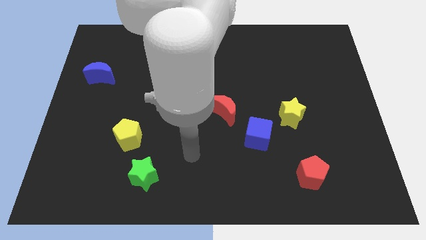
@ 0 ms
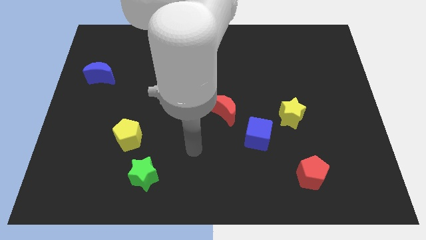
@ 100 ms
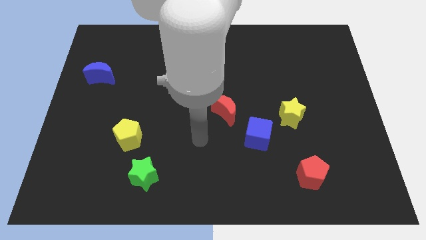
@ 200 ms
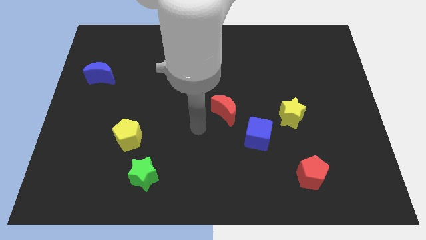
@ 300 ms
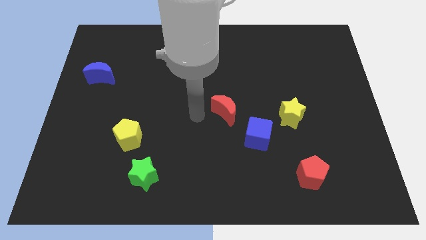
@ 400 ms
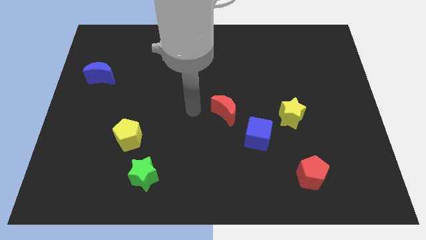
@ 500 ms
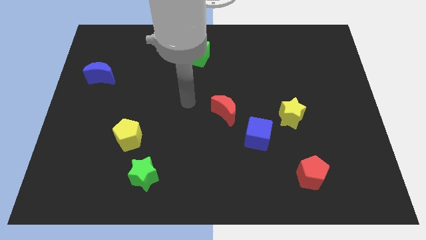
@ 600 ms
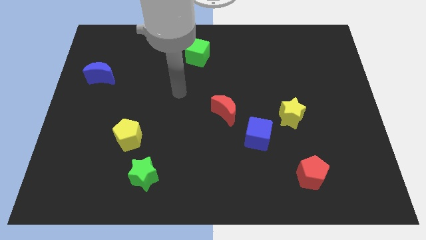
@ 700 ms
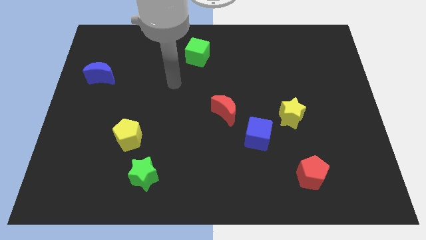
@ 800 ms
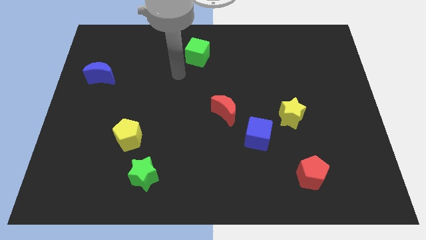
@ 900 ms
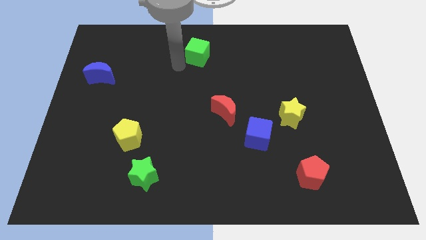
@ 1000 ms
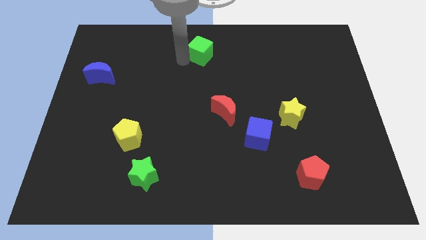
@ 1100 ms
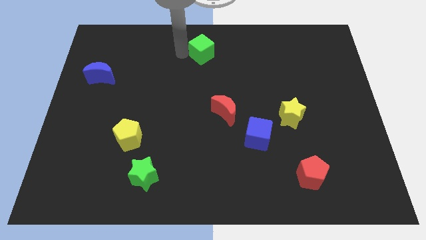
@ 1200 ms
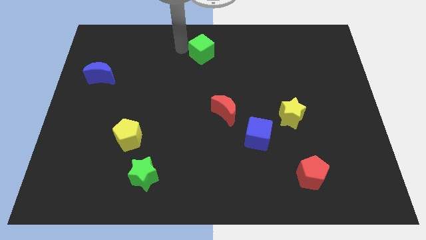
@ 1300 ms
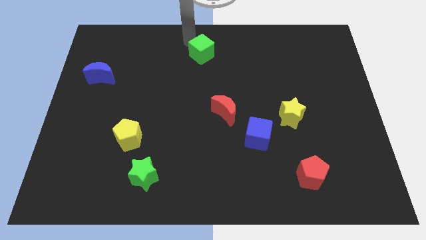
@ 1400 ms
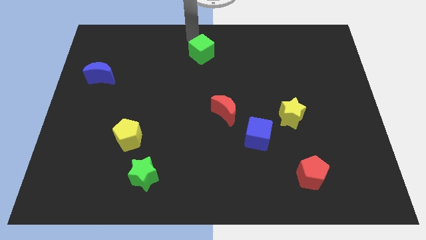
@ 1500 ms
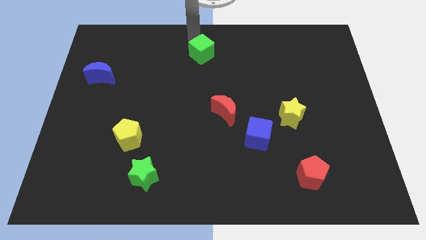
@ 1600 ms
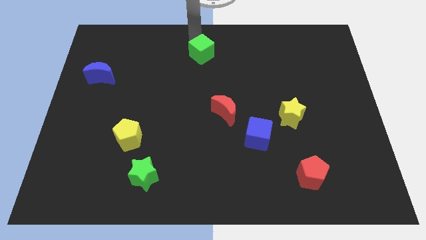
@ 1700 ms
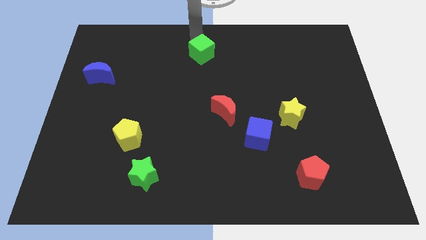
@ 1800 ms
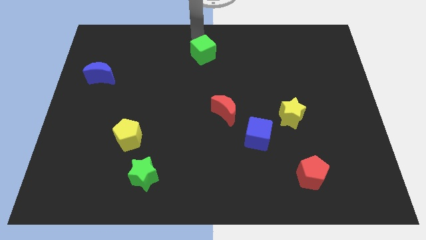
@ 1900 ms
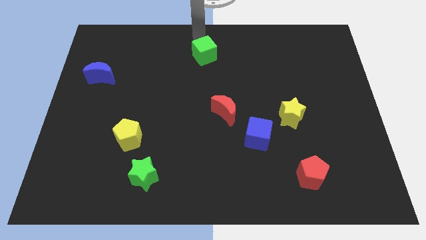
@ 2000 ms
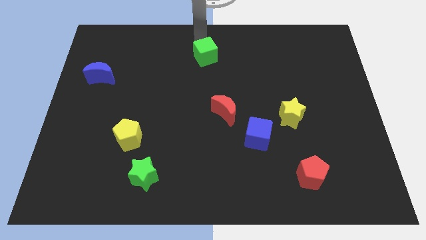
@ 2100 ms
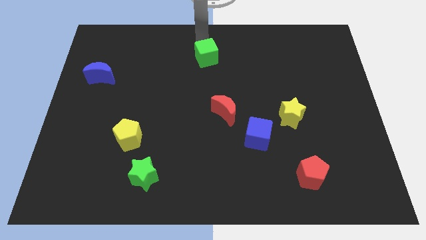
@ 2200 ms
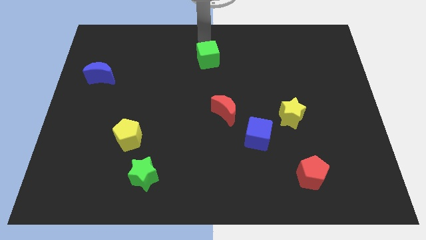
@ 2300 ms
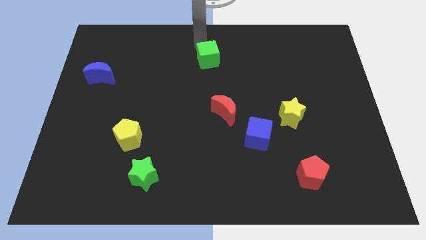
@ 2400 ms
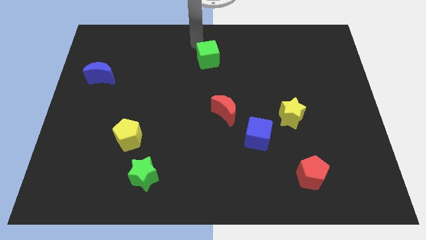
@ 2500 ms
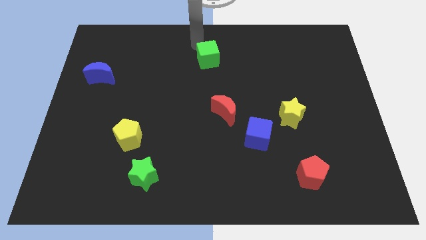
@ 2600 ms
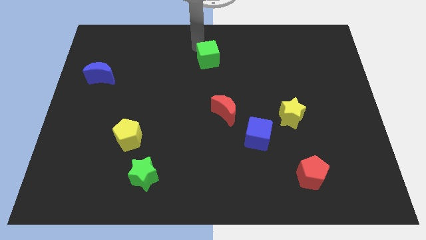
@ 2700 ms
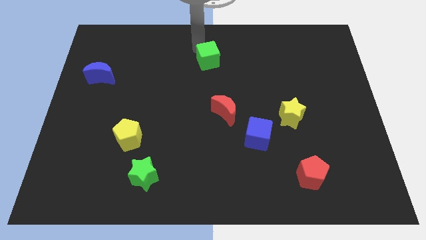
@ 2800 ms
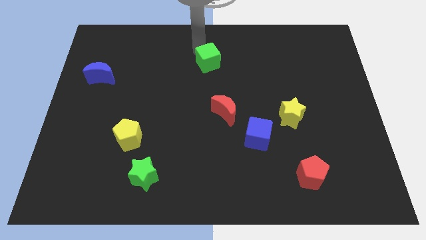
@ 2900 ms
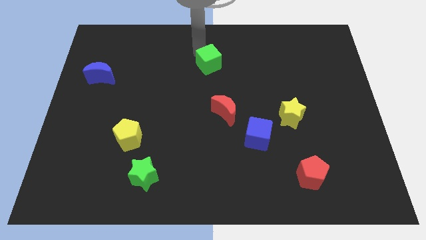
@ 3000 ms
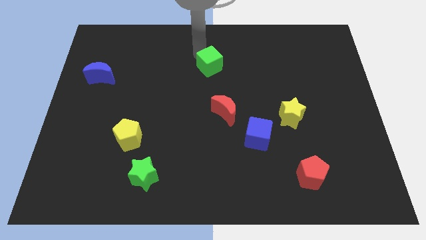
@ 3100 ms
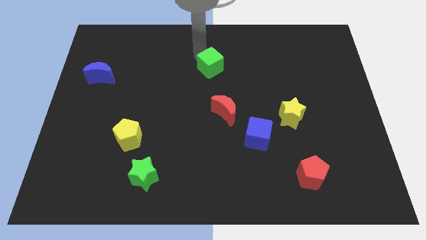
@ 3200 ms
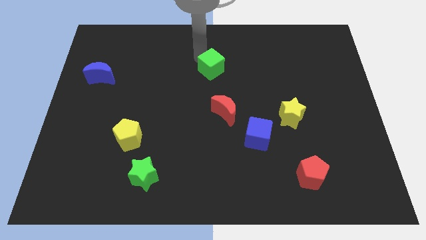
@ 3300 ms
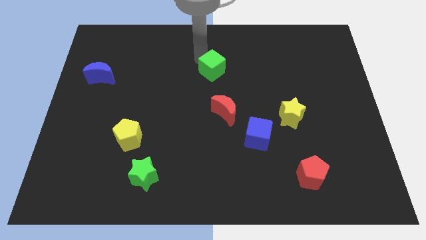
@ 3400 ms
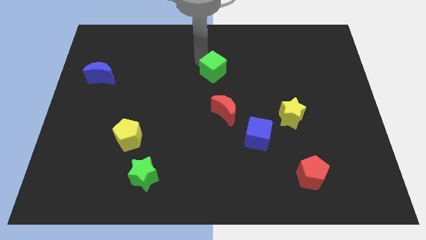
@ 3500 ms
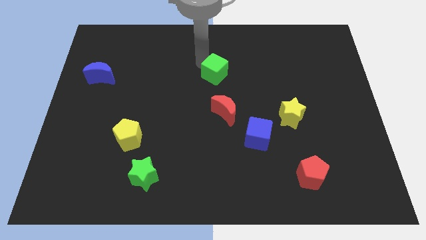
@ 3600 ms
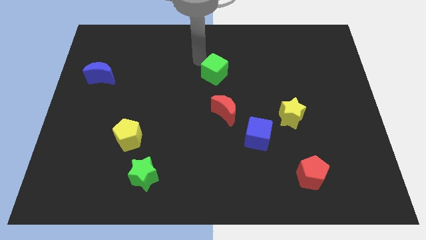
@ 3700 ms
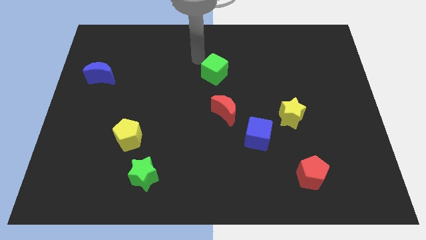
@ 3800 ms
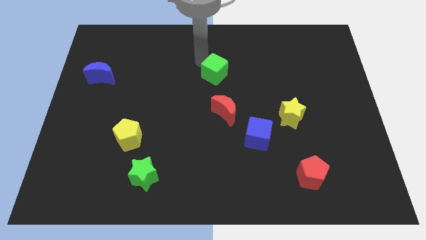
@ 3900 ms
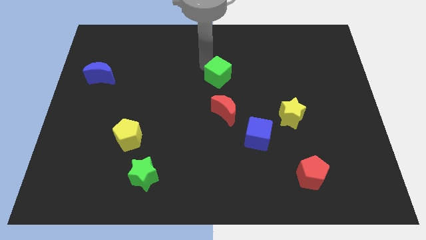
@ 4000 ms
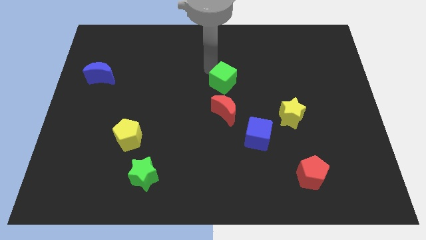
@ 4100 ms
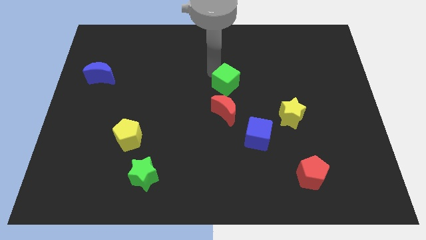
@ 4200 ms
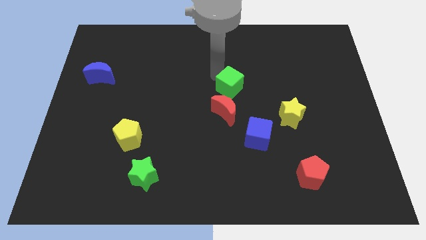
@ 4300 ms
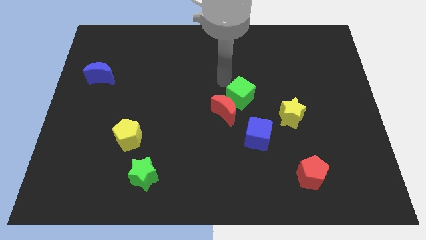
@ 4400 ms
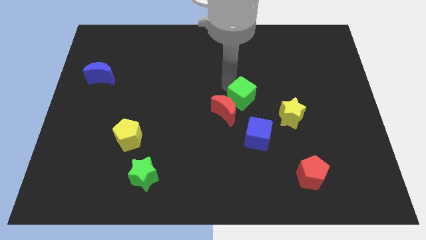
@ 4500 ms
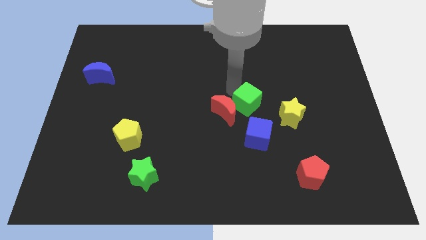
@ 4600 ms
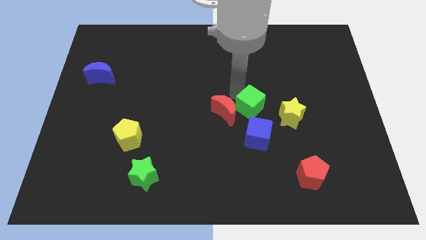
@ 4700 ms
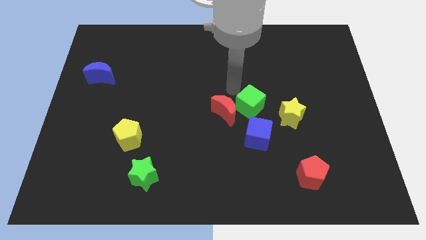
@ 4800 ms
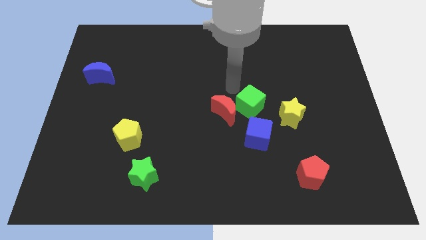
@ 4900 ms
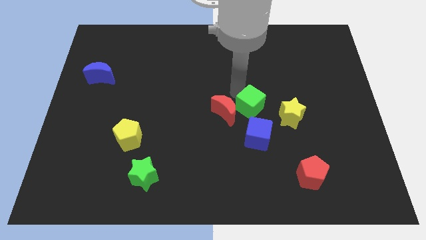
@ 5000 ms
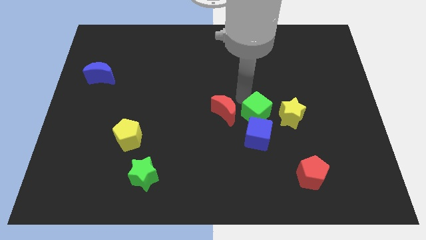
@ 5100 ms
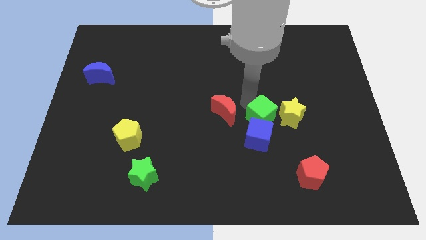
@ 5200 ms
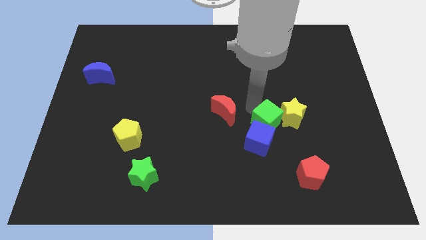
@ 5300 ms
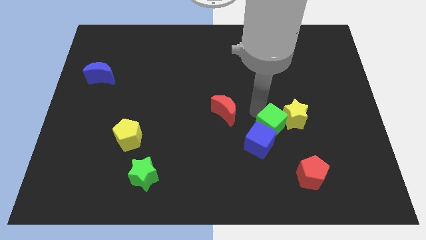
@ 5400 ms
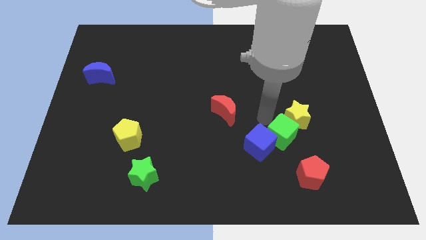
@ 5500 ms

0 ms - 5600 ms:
slide the green cube to the bottom of the yellow star

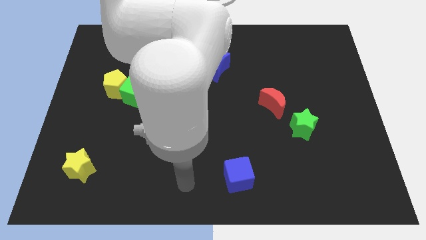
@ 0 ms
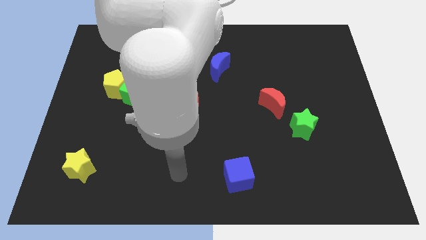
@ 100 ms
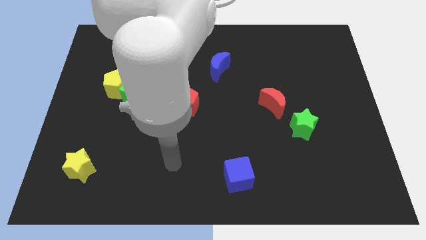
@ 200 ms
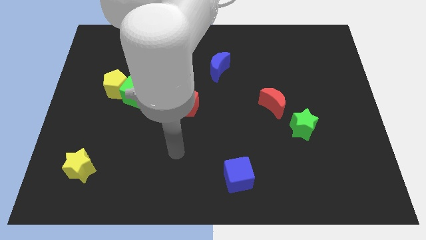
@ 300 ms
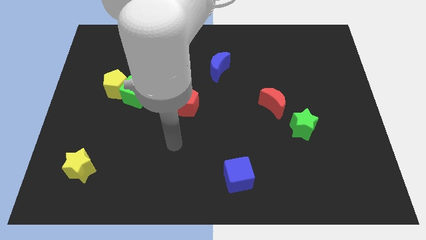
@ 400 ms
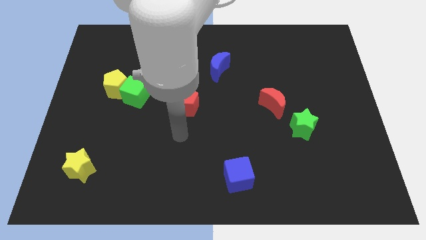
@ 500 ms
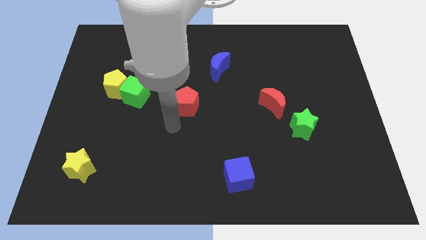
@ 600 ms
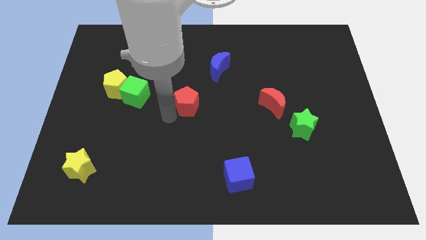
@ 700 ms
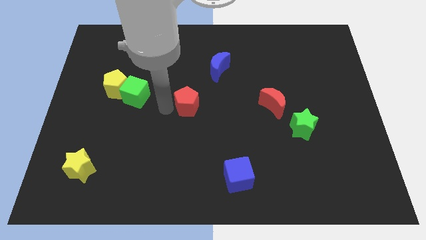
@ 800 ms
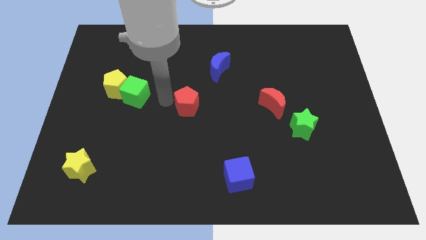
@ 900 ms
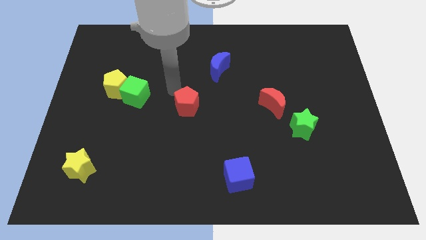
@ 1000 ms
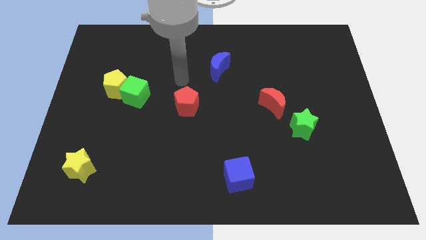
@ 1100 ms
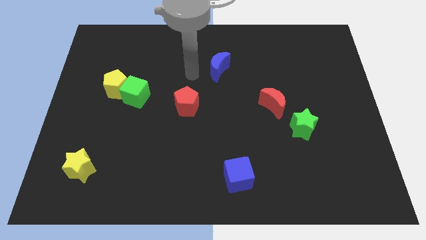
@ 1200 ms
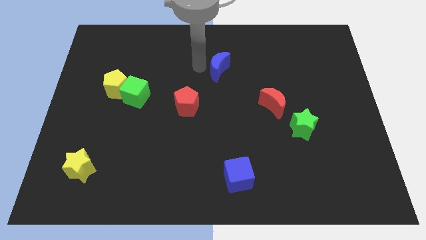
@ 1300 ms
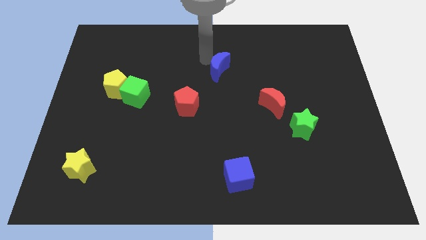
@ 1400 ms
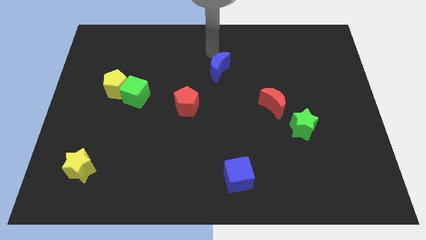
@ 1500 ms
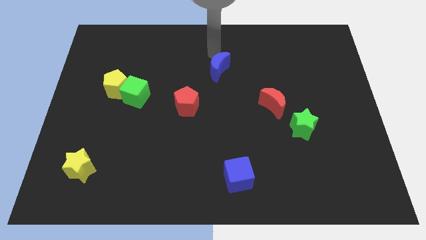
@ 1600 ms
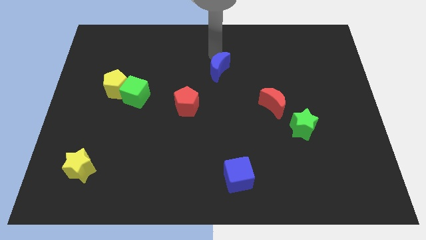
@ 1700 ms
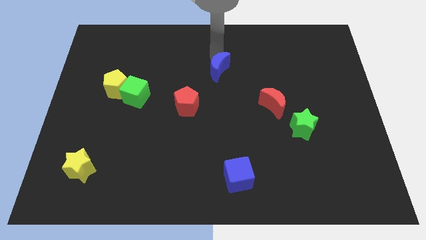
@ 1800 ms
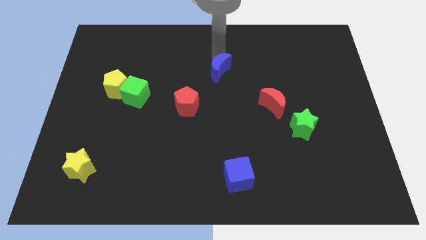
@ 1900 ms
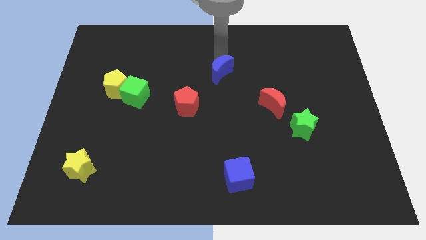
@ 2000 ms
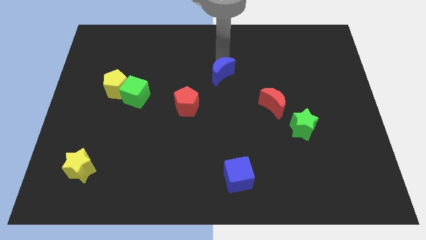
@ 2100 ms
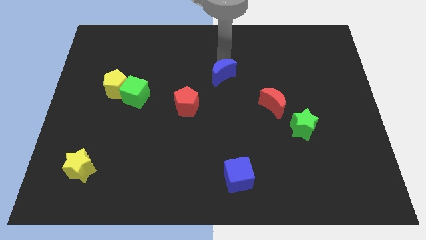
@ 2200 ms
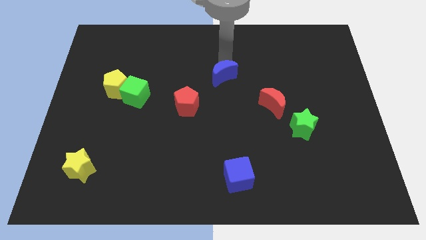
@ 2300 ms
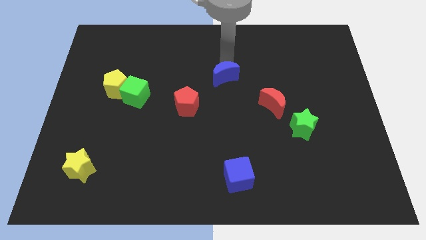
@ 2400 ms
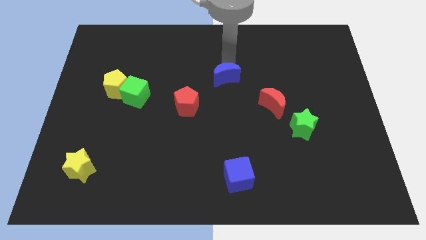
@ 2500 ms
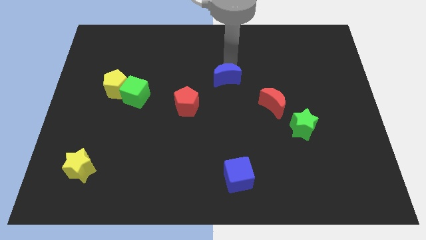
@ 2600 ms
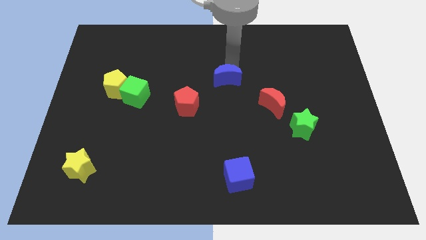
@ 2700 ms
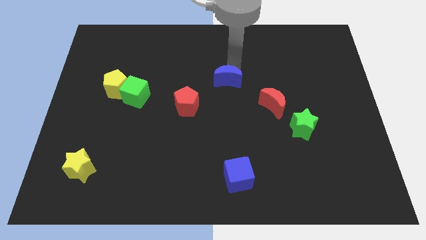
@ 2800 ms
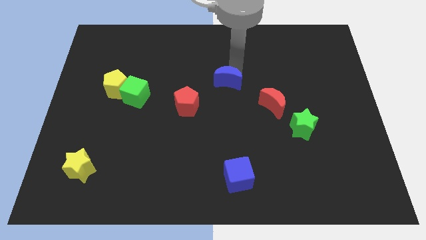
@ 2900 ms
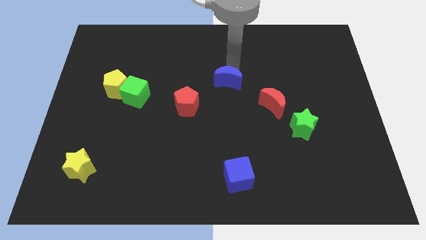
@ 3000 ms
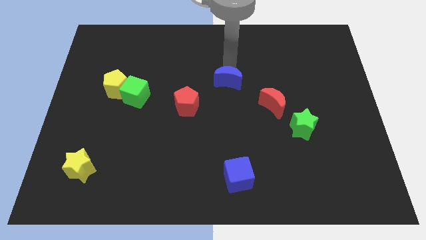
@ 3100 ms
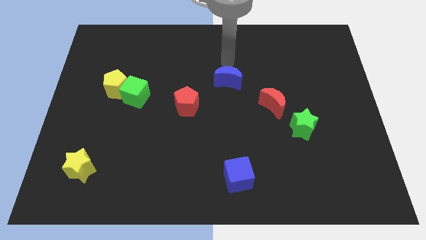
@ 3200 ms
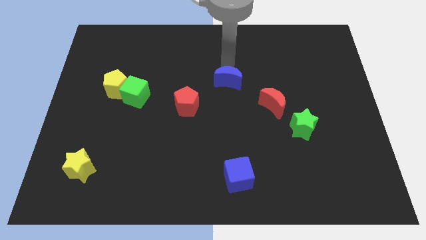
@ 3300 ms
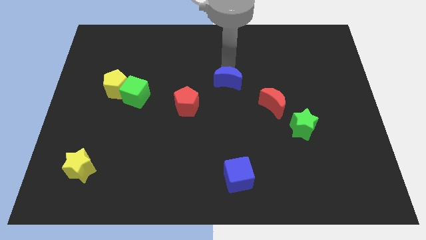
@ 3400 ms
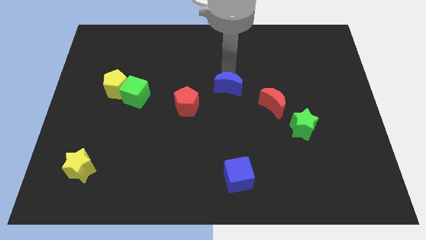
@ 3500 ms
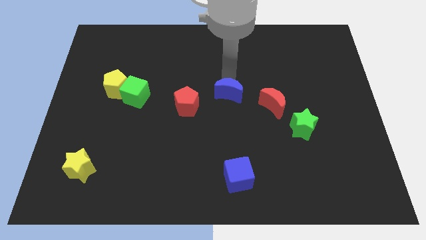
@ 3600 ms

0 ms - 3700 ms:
put the blue moon to the left of the red moon
